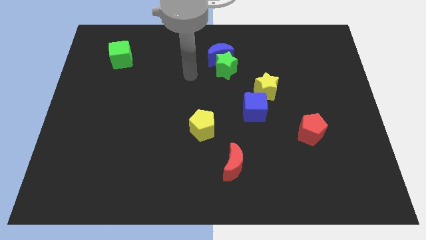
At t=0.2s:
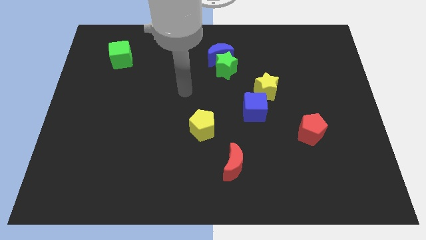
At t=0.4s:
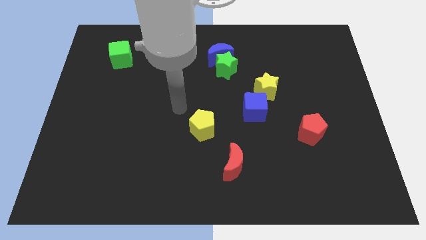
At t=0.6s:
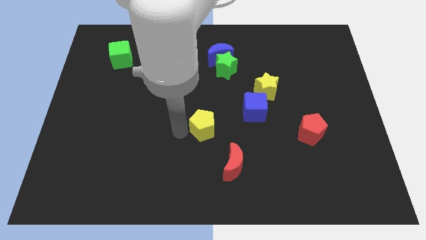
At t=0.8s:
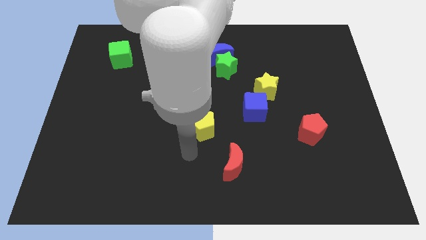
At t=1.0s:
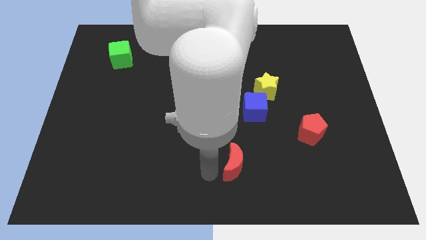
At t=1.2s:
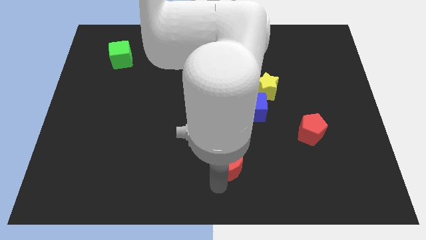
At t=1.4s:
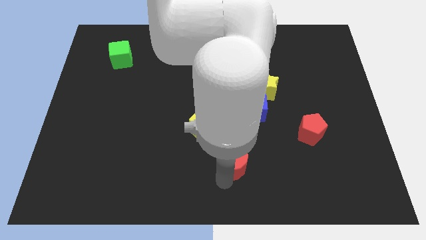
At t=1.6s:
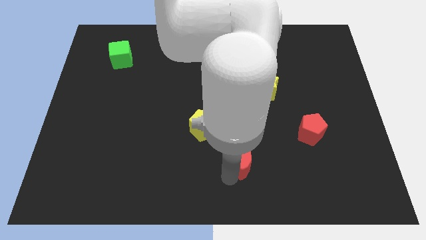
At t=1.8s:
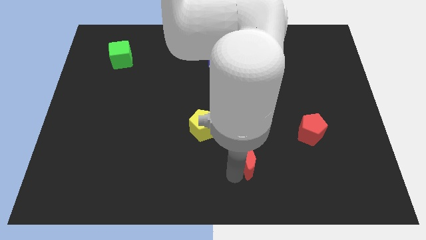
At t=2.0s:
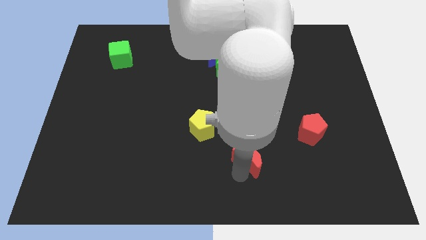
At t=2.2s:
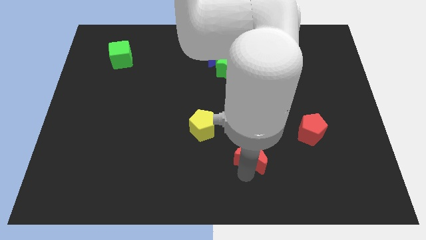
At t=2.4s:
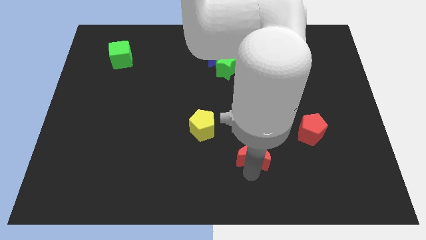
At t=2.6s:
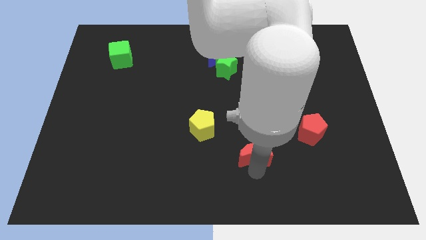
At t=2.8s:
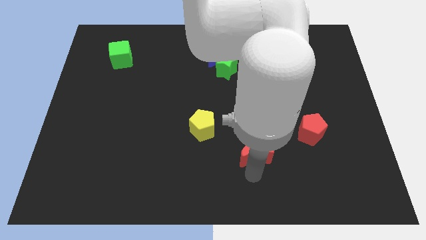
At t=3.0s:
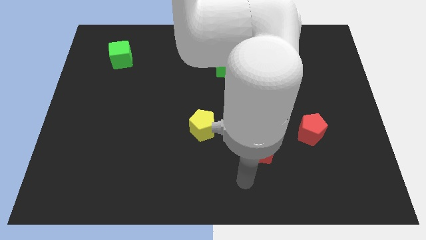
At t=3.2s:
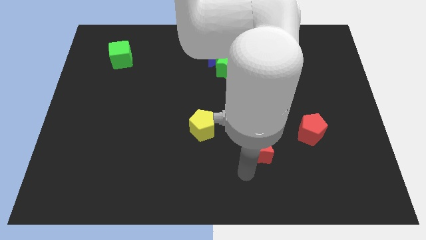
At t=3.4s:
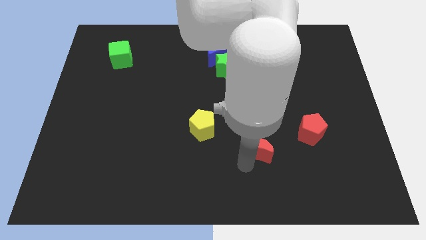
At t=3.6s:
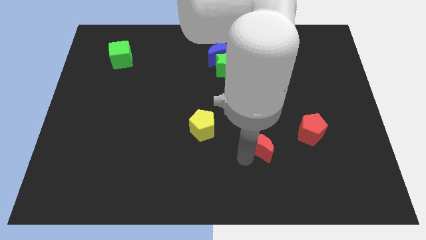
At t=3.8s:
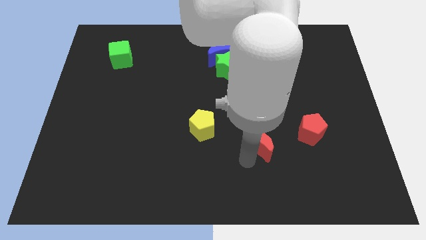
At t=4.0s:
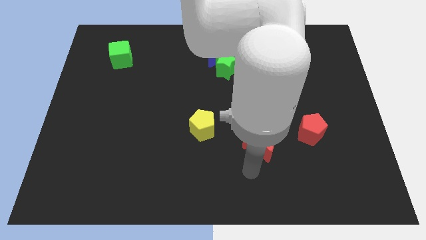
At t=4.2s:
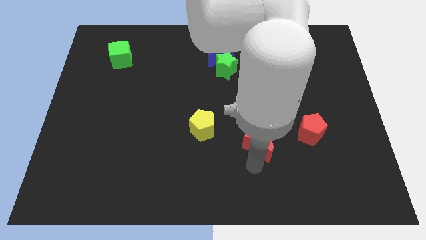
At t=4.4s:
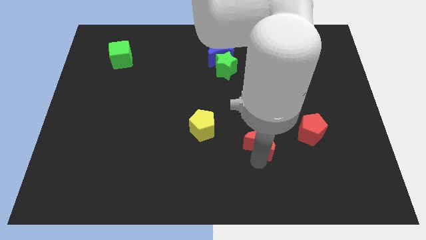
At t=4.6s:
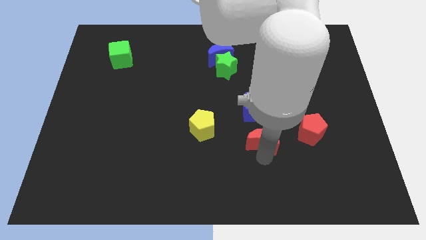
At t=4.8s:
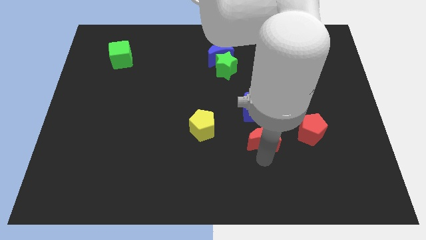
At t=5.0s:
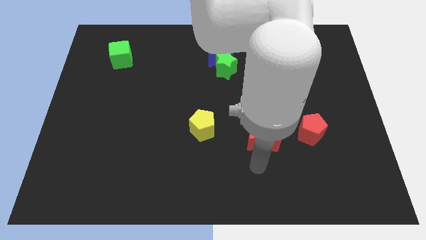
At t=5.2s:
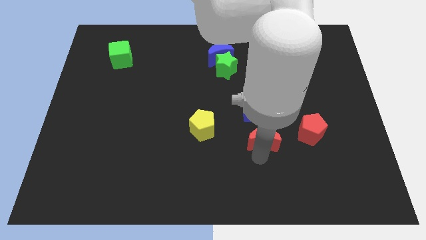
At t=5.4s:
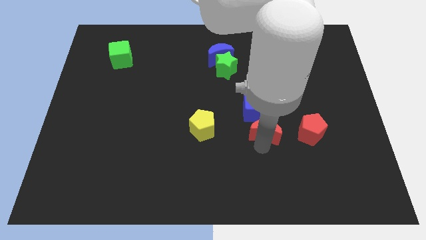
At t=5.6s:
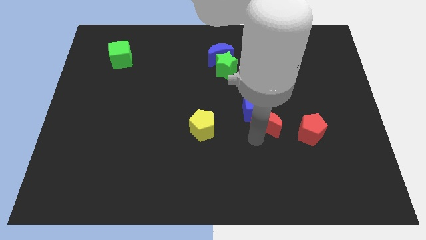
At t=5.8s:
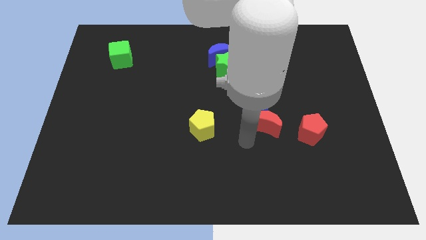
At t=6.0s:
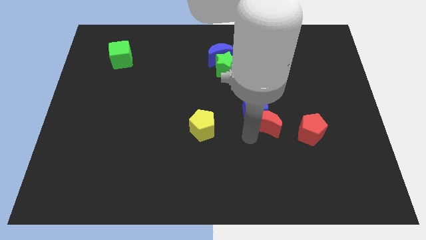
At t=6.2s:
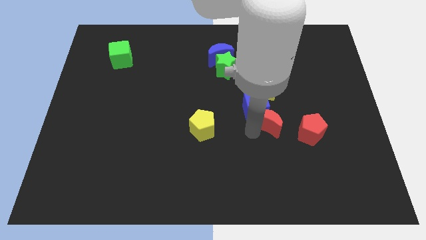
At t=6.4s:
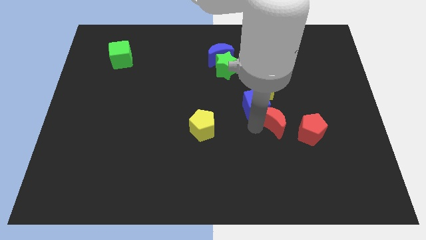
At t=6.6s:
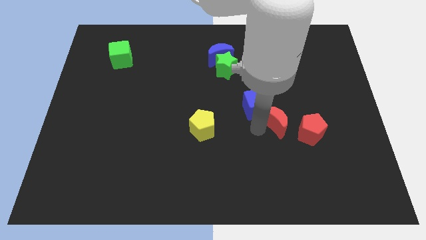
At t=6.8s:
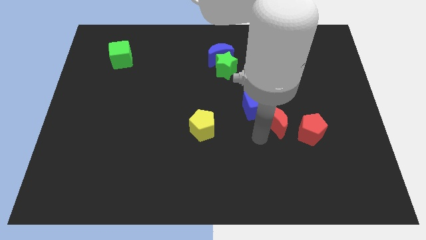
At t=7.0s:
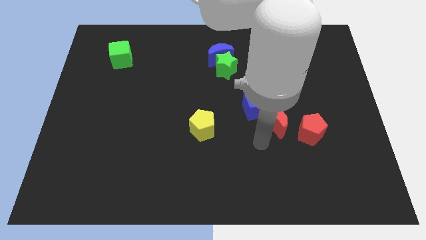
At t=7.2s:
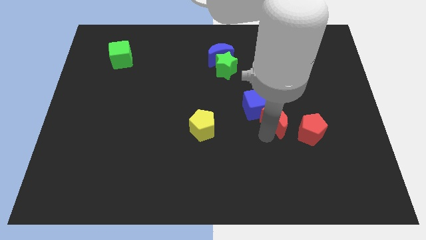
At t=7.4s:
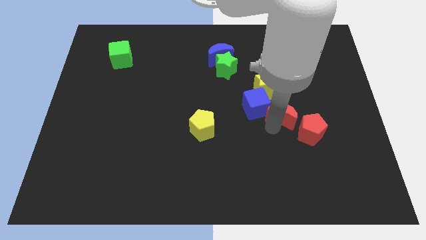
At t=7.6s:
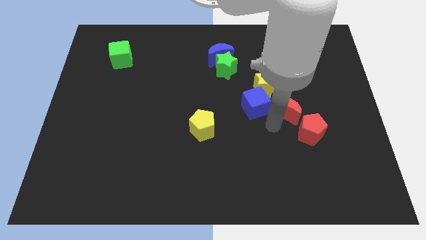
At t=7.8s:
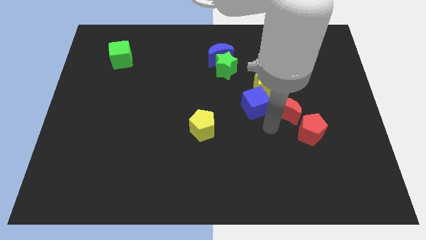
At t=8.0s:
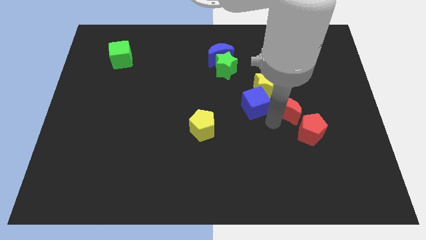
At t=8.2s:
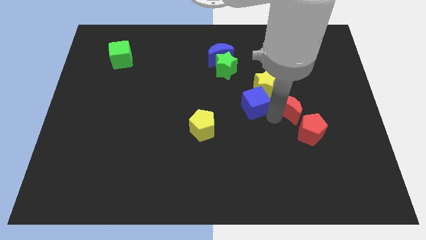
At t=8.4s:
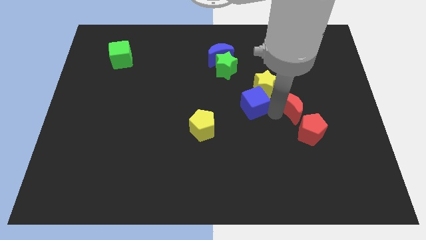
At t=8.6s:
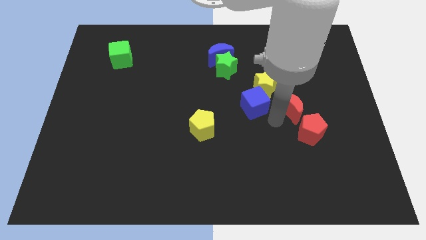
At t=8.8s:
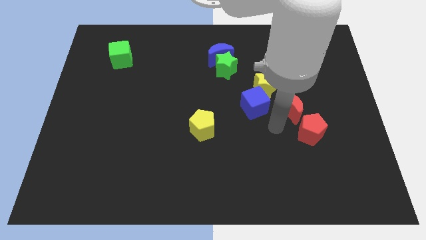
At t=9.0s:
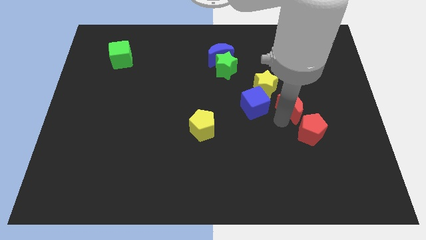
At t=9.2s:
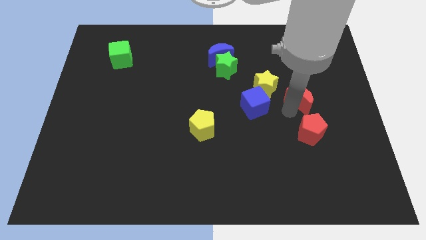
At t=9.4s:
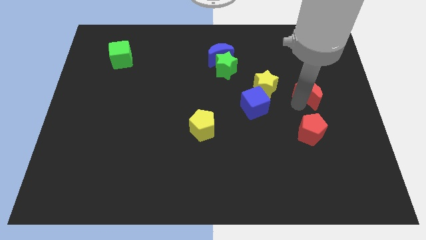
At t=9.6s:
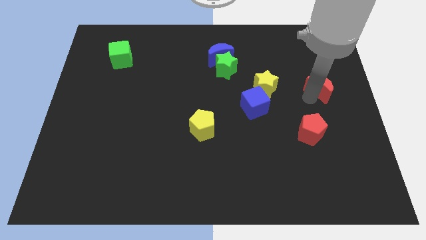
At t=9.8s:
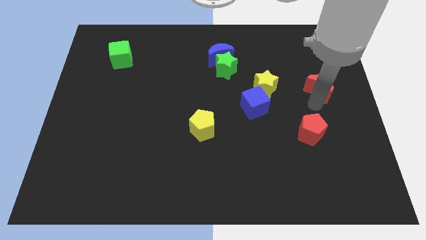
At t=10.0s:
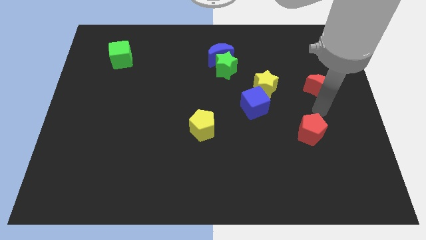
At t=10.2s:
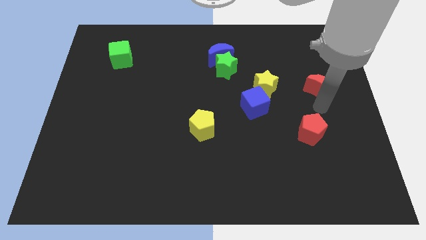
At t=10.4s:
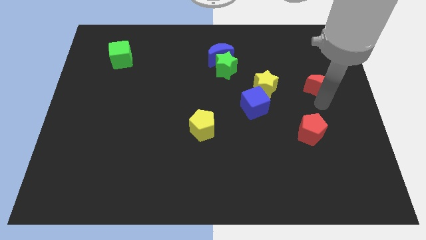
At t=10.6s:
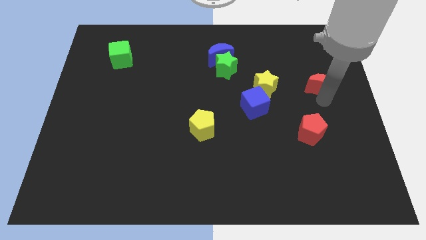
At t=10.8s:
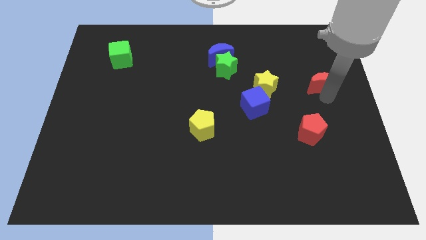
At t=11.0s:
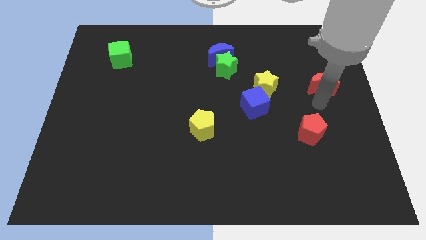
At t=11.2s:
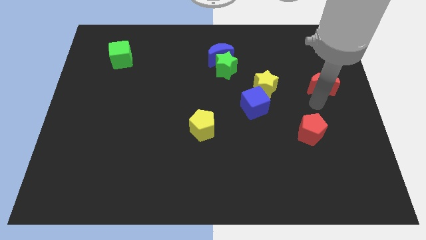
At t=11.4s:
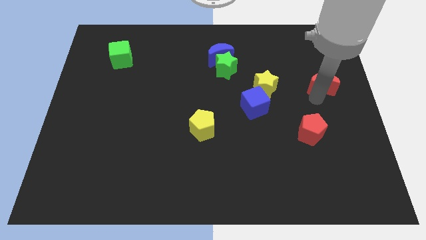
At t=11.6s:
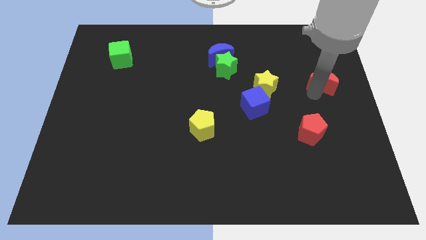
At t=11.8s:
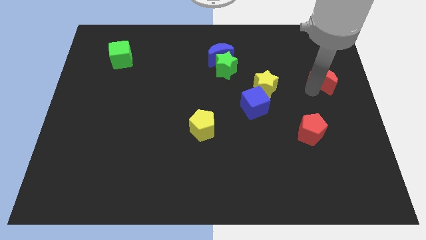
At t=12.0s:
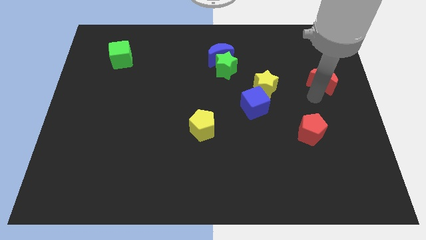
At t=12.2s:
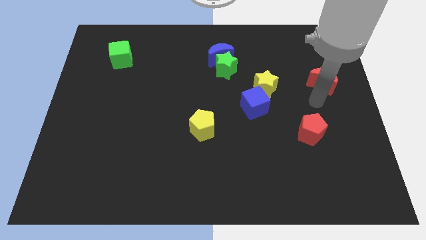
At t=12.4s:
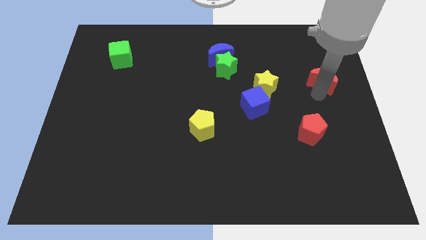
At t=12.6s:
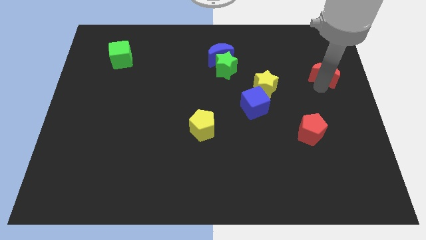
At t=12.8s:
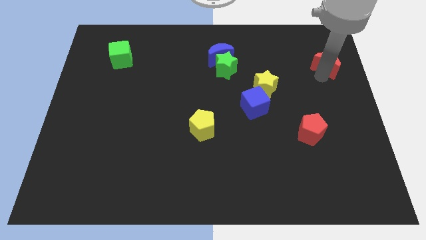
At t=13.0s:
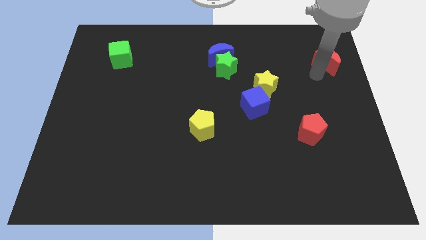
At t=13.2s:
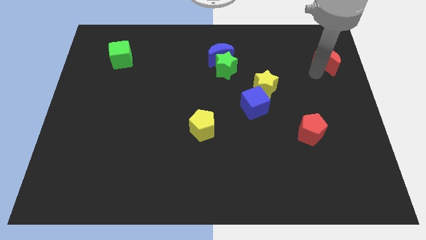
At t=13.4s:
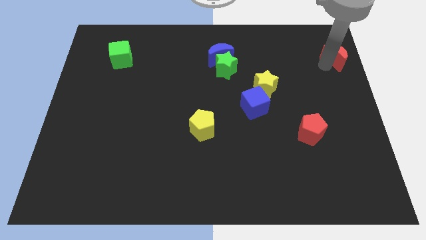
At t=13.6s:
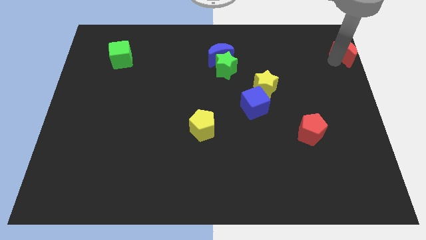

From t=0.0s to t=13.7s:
move the red moon to the top right
